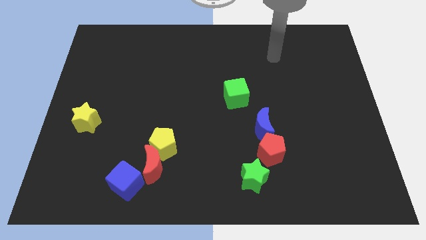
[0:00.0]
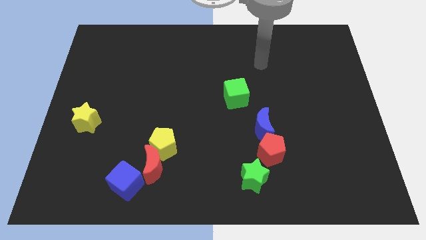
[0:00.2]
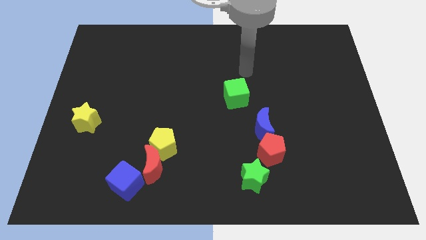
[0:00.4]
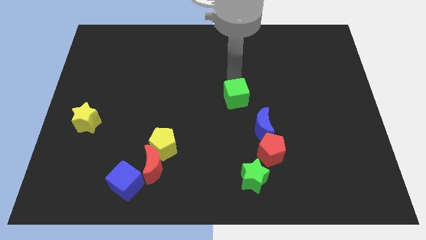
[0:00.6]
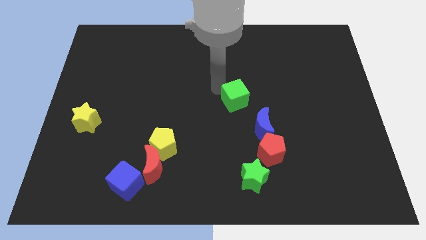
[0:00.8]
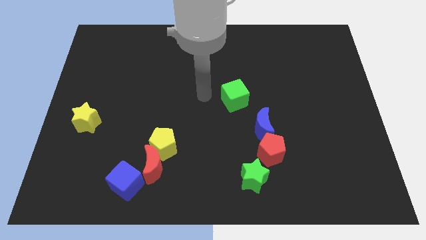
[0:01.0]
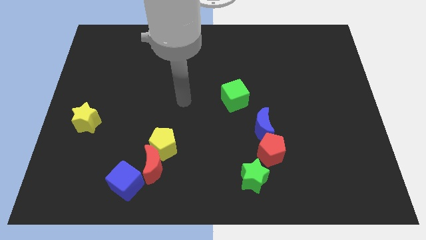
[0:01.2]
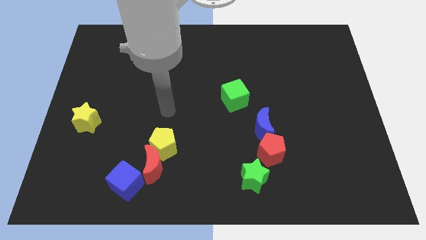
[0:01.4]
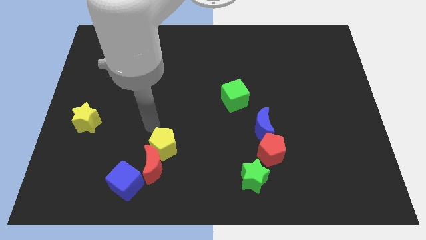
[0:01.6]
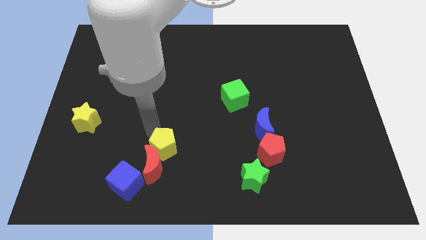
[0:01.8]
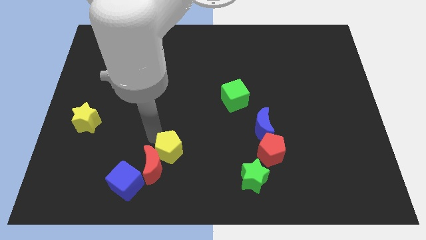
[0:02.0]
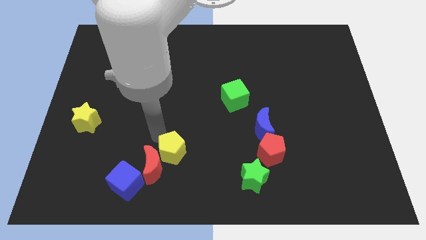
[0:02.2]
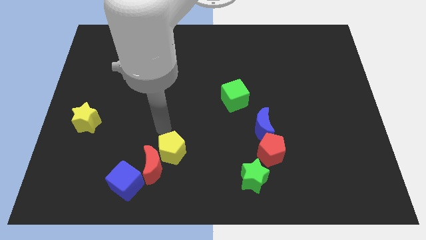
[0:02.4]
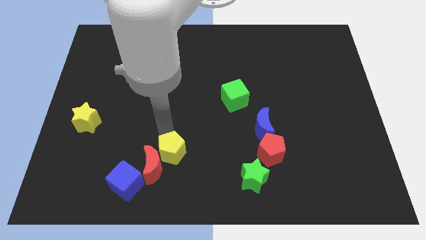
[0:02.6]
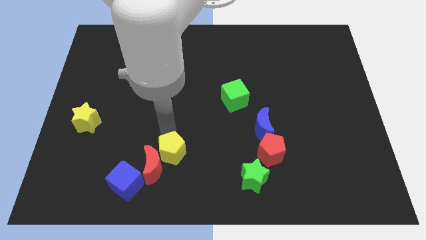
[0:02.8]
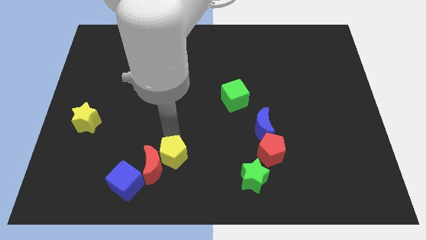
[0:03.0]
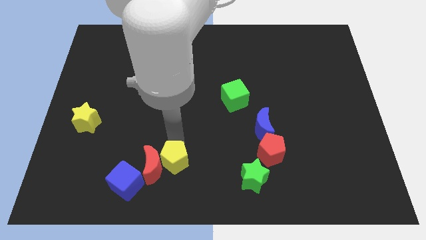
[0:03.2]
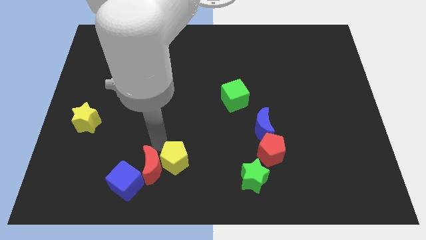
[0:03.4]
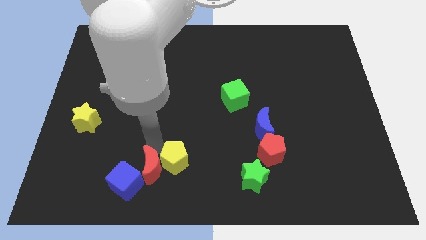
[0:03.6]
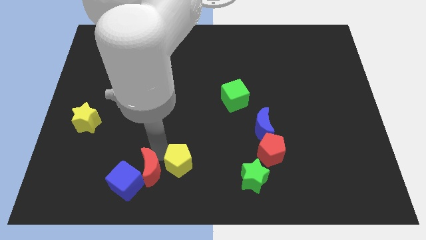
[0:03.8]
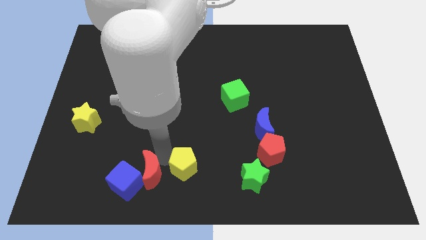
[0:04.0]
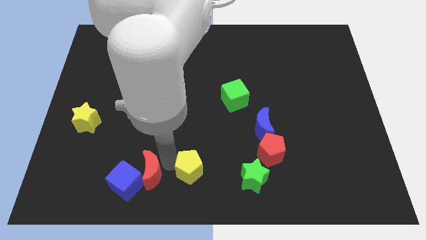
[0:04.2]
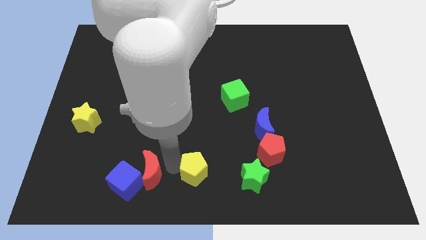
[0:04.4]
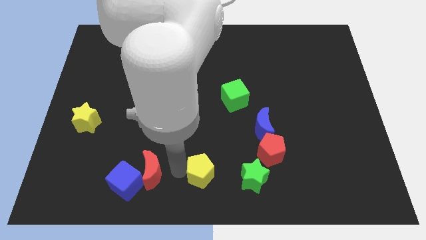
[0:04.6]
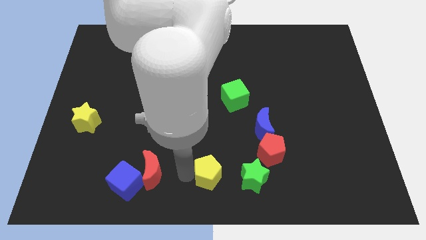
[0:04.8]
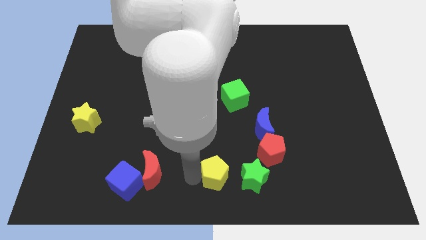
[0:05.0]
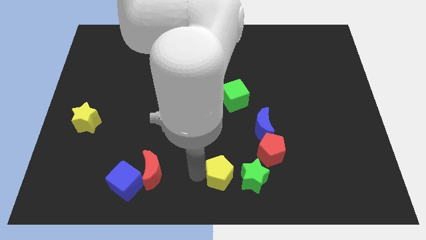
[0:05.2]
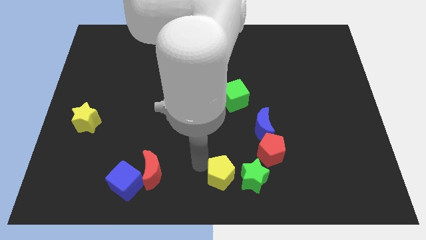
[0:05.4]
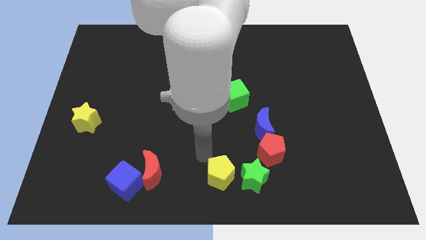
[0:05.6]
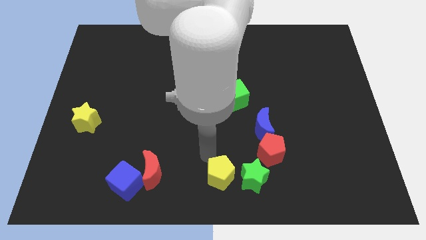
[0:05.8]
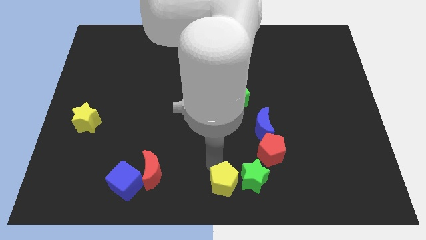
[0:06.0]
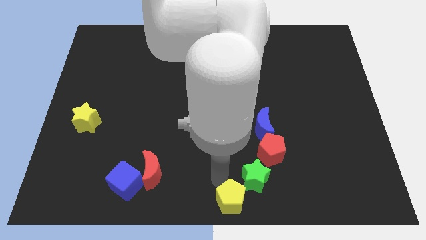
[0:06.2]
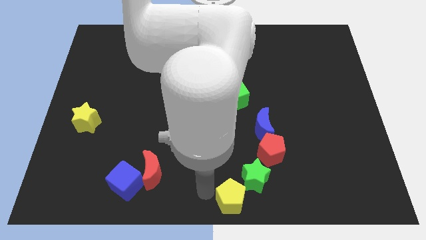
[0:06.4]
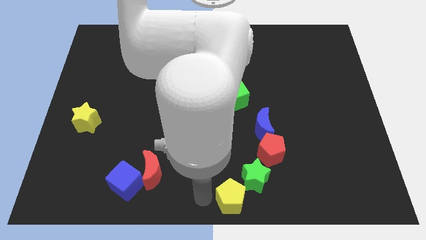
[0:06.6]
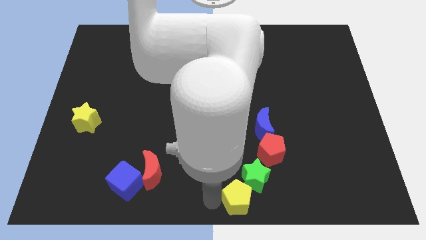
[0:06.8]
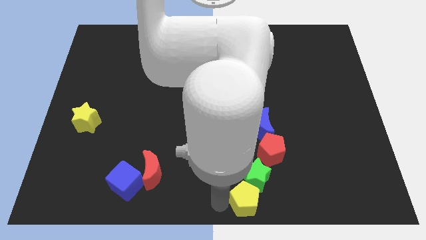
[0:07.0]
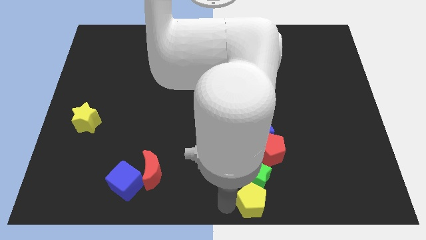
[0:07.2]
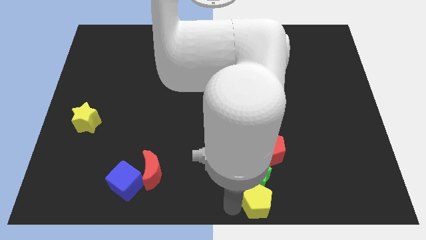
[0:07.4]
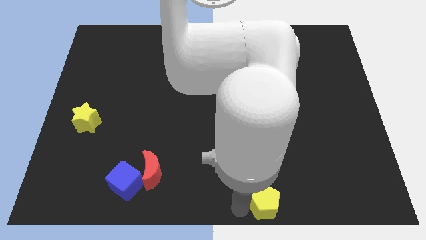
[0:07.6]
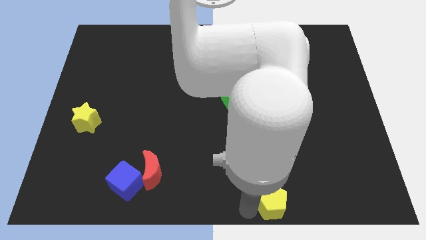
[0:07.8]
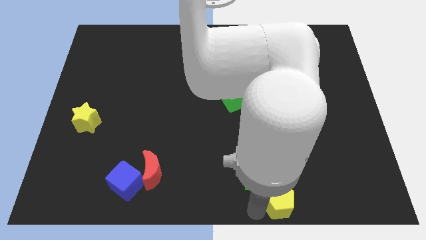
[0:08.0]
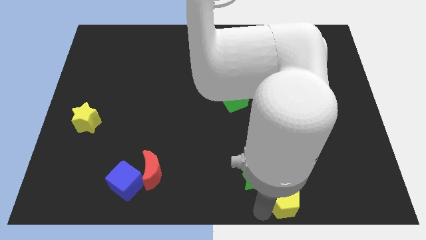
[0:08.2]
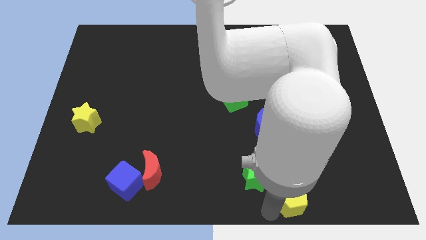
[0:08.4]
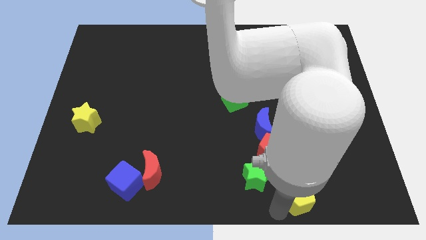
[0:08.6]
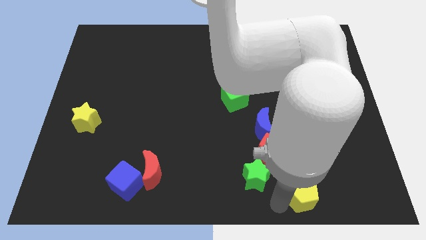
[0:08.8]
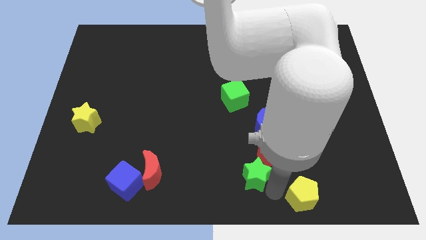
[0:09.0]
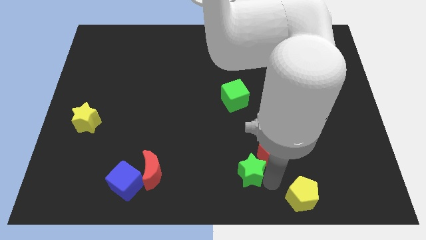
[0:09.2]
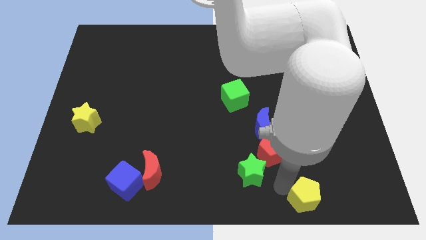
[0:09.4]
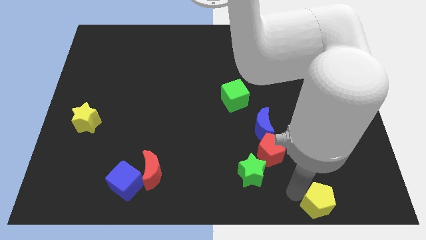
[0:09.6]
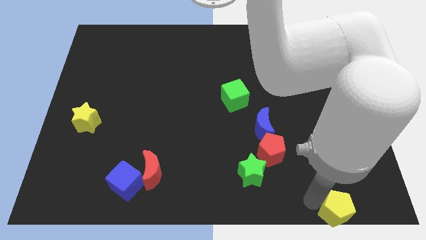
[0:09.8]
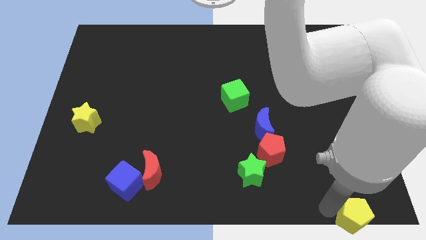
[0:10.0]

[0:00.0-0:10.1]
push the yellow pentagon to the bottom right of the board

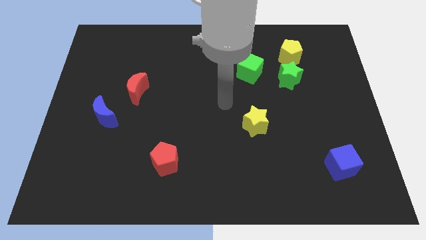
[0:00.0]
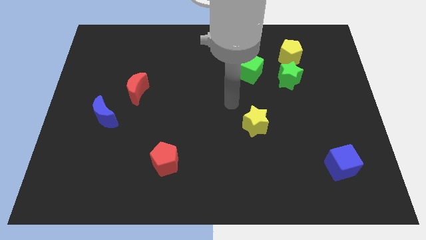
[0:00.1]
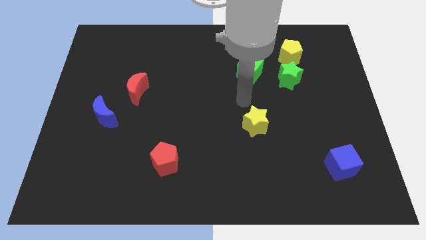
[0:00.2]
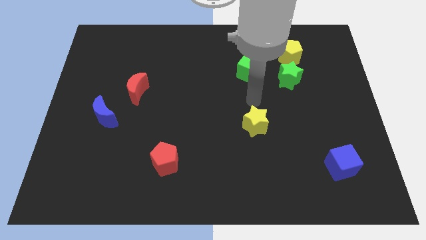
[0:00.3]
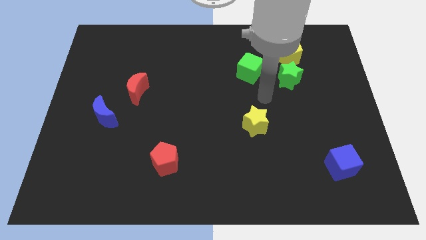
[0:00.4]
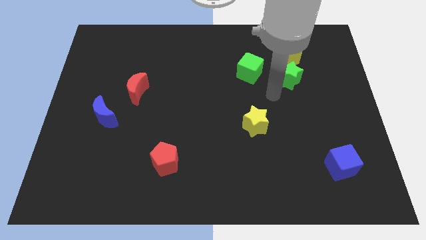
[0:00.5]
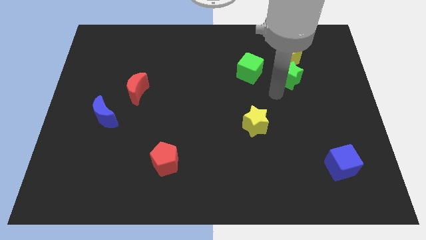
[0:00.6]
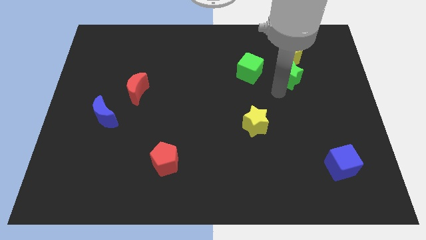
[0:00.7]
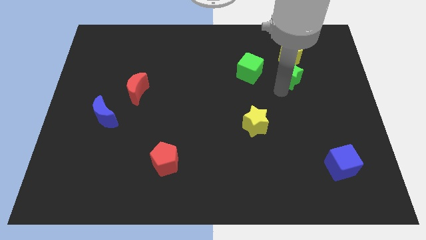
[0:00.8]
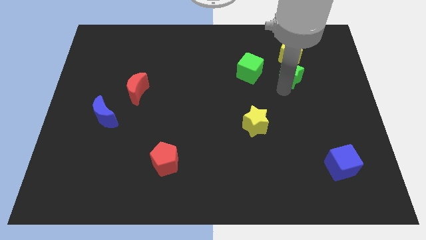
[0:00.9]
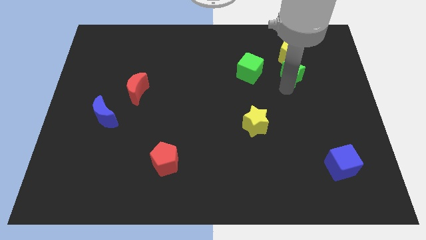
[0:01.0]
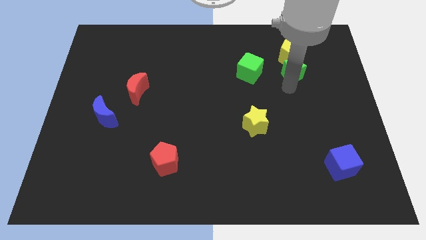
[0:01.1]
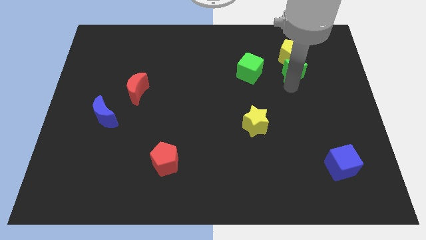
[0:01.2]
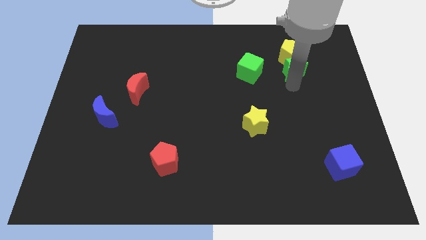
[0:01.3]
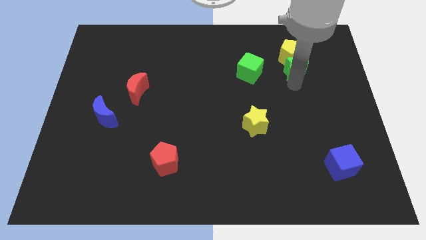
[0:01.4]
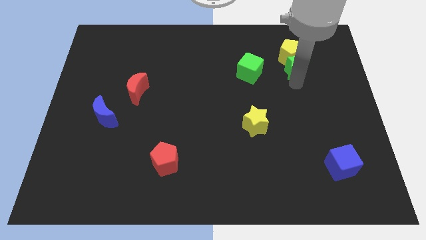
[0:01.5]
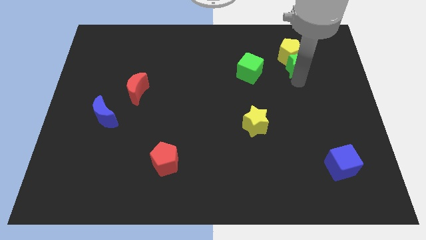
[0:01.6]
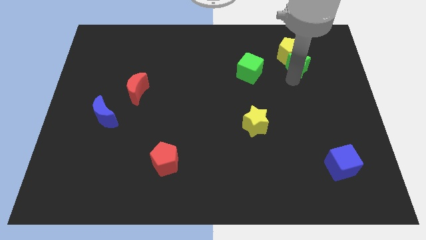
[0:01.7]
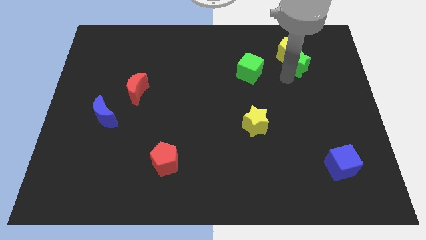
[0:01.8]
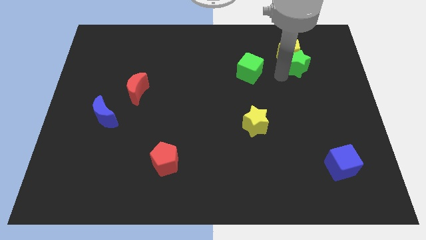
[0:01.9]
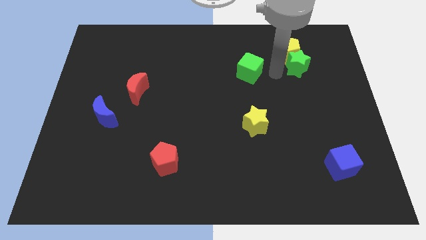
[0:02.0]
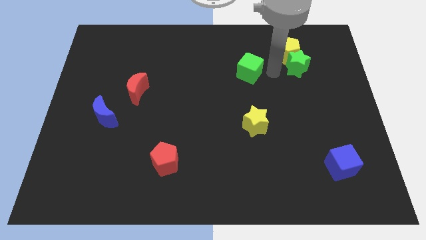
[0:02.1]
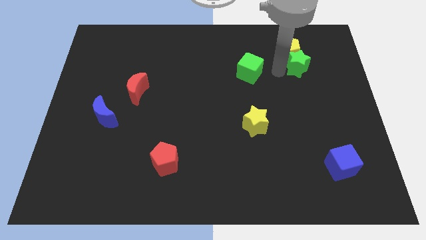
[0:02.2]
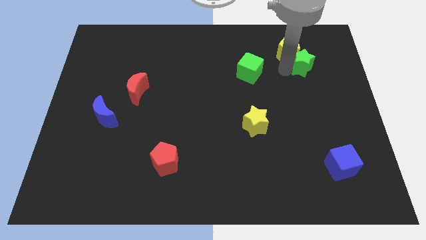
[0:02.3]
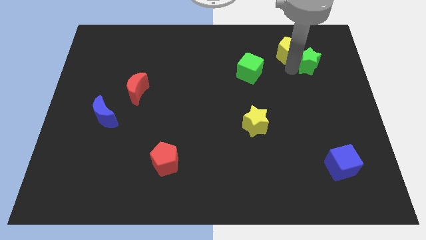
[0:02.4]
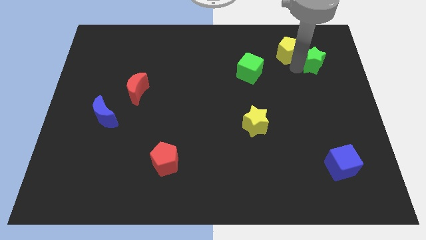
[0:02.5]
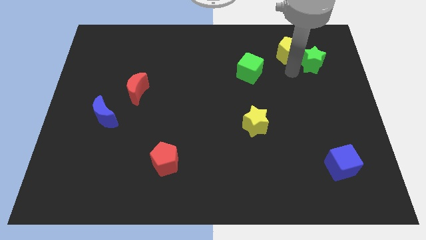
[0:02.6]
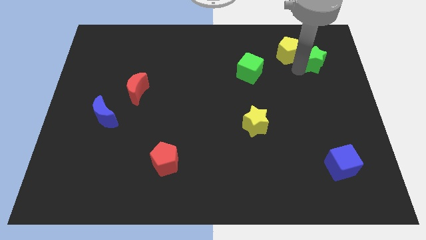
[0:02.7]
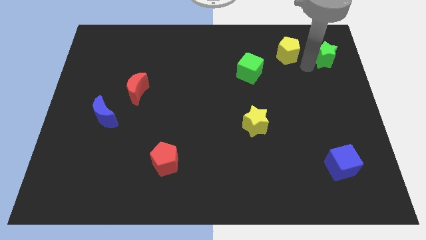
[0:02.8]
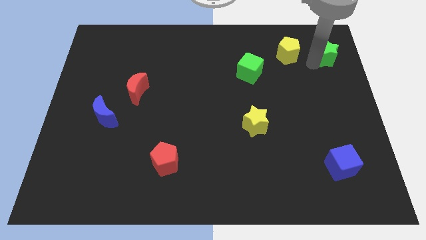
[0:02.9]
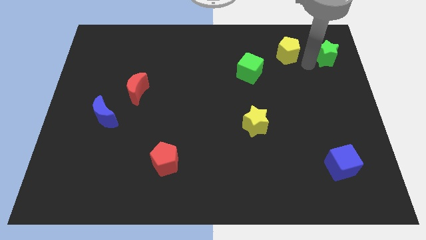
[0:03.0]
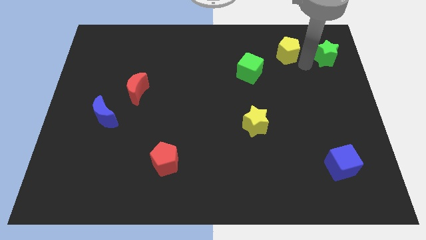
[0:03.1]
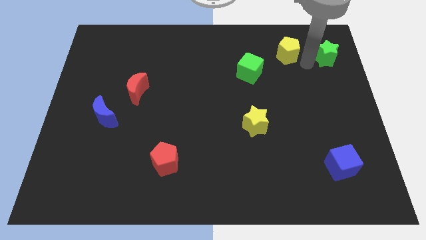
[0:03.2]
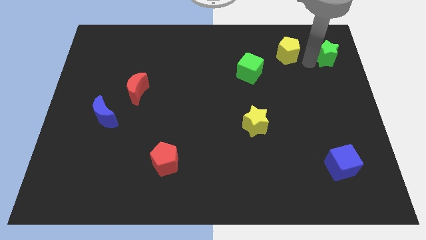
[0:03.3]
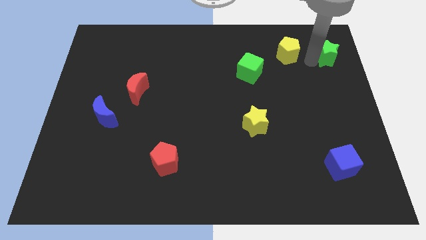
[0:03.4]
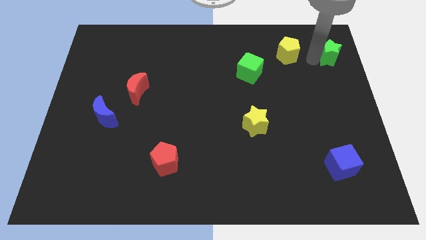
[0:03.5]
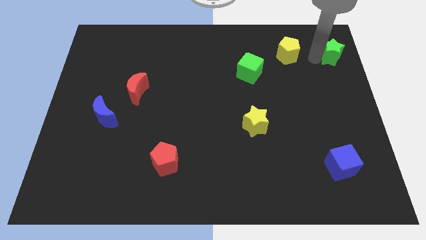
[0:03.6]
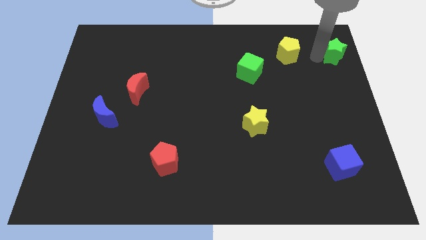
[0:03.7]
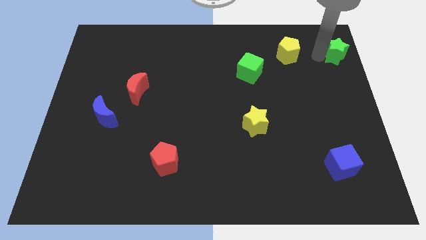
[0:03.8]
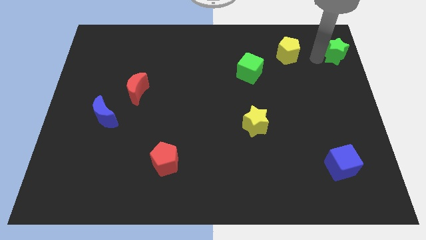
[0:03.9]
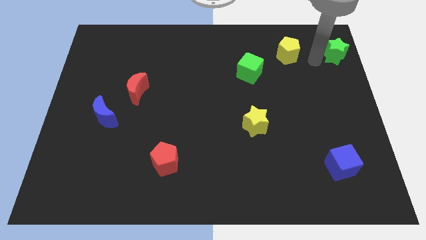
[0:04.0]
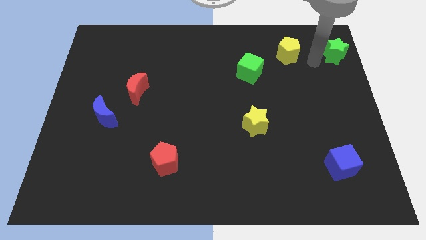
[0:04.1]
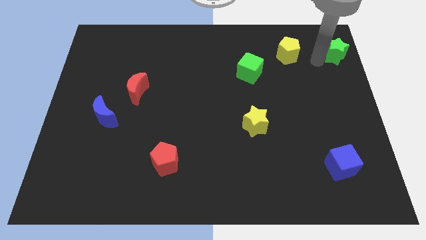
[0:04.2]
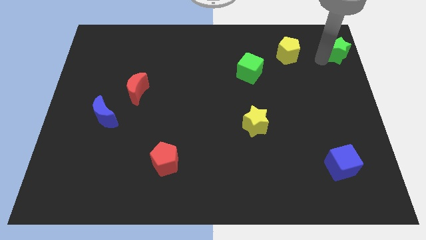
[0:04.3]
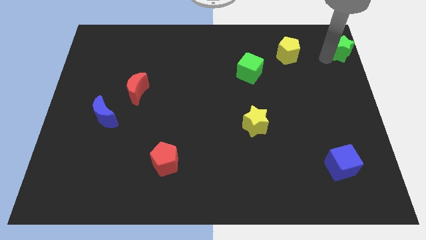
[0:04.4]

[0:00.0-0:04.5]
move the green star to the top right corner
